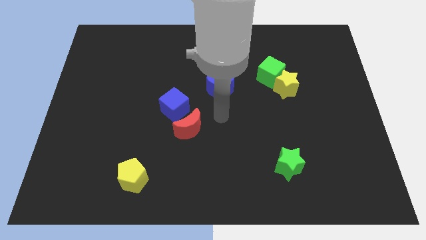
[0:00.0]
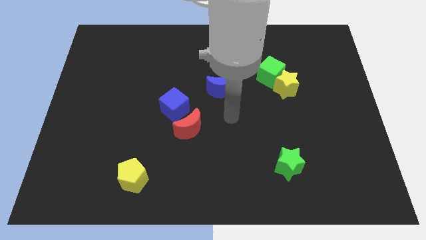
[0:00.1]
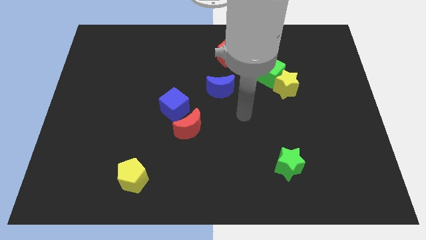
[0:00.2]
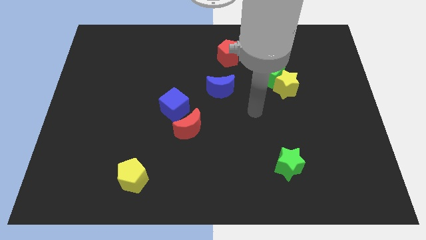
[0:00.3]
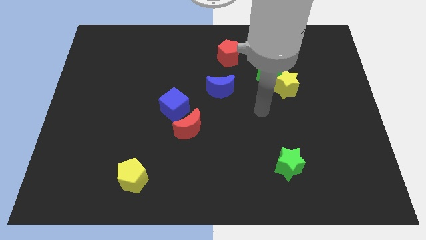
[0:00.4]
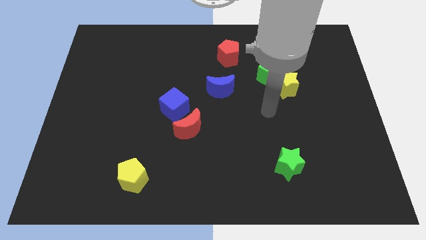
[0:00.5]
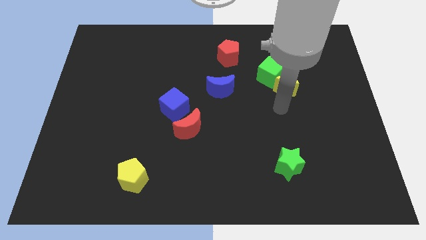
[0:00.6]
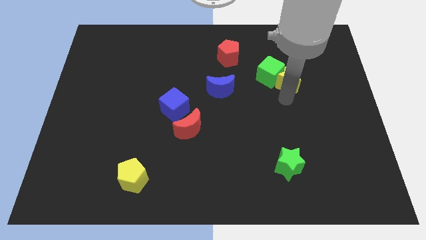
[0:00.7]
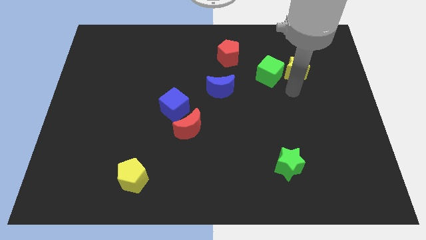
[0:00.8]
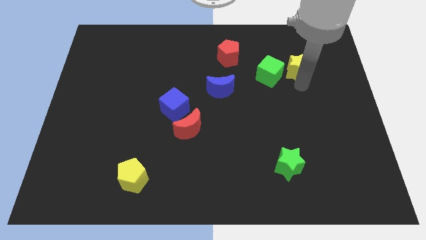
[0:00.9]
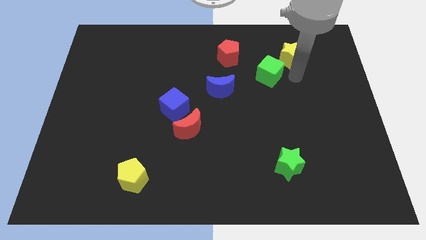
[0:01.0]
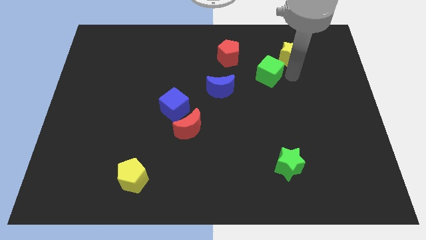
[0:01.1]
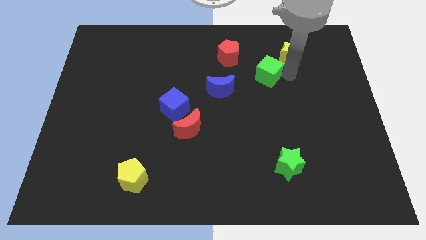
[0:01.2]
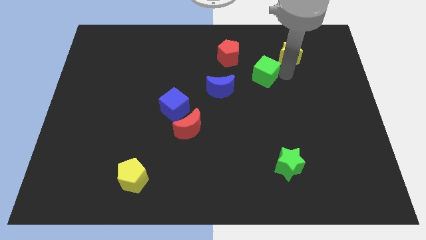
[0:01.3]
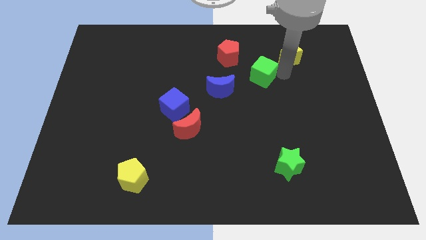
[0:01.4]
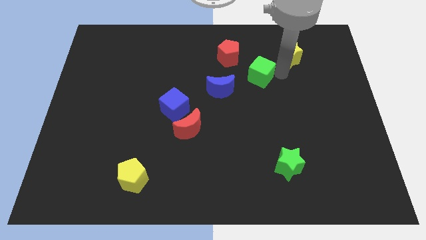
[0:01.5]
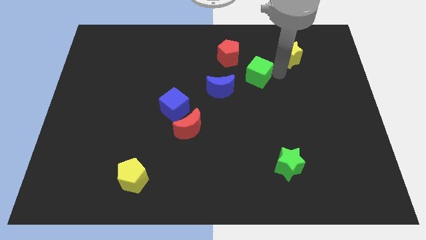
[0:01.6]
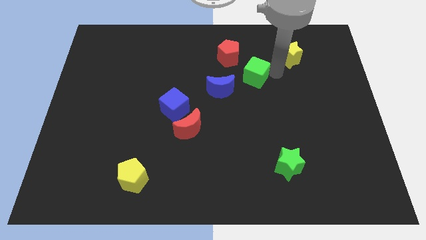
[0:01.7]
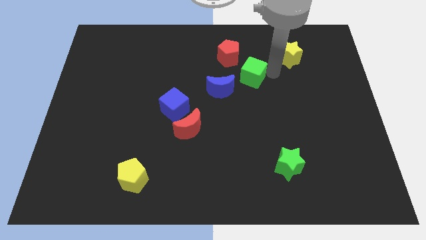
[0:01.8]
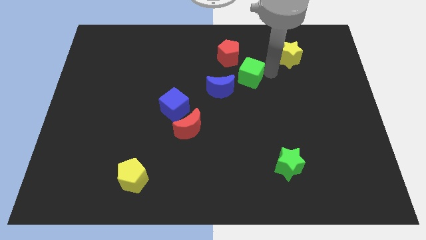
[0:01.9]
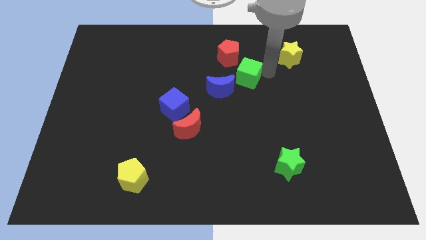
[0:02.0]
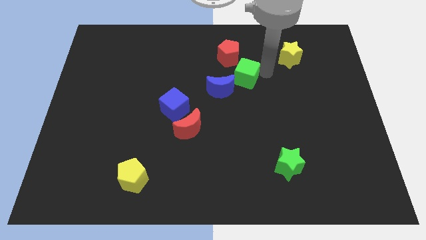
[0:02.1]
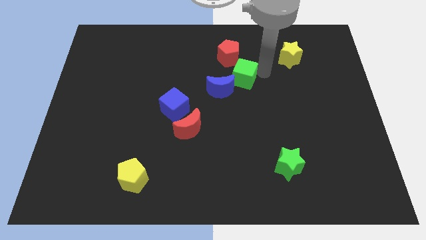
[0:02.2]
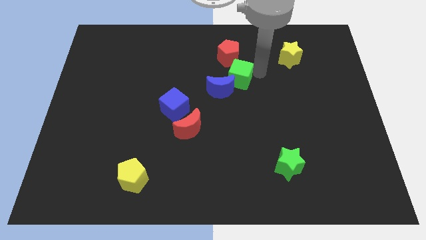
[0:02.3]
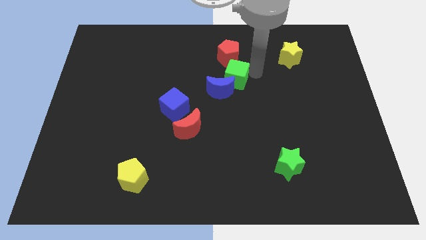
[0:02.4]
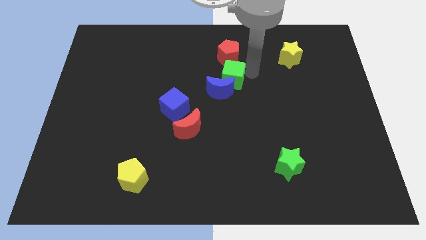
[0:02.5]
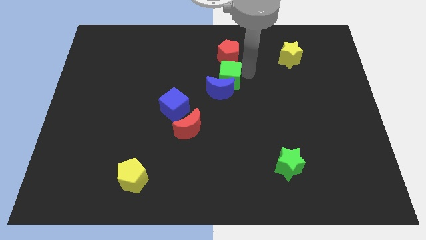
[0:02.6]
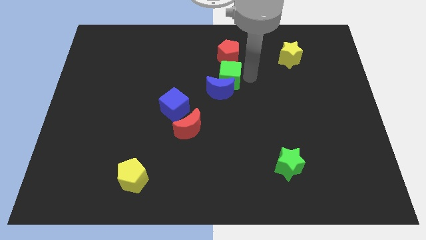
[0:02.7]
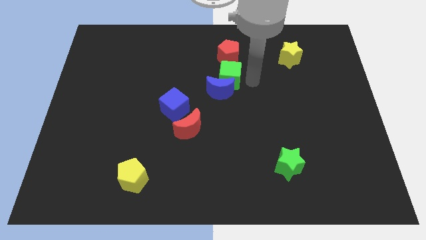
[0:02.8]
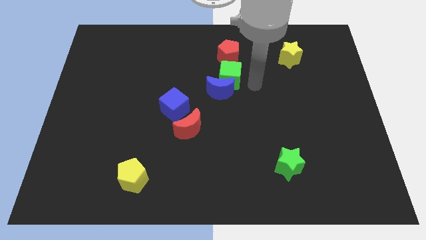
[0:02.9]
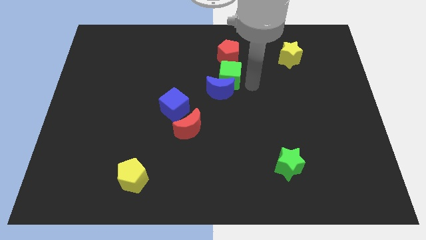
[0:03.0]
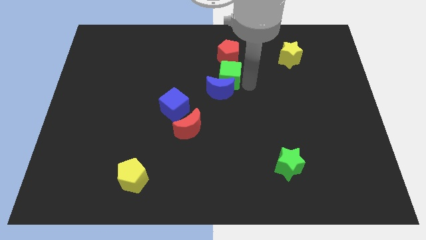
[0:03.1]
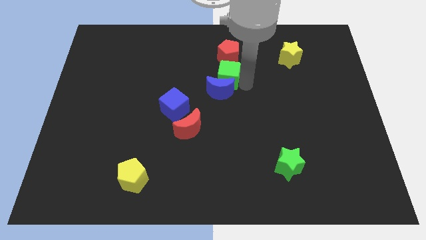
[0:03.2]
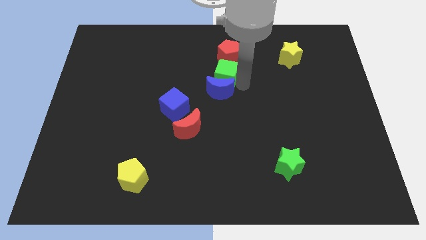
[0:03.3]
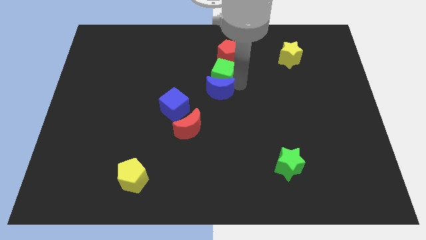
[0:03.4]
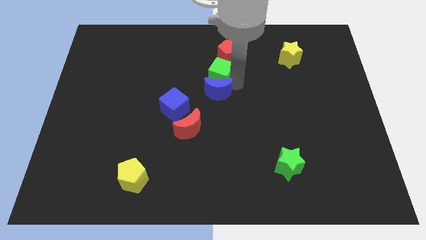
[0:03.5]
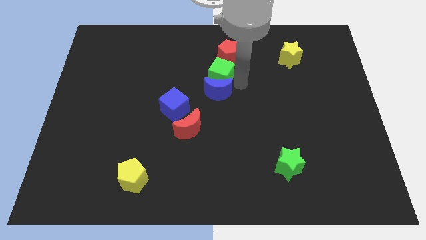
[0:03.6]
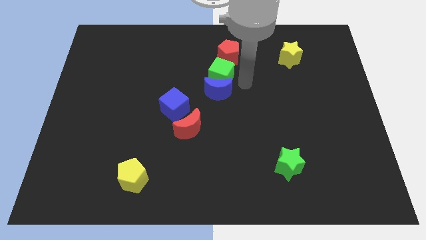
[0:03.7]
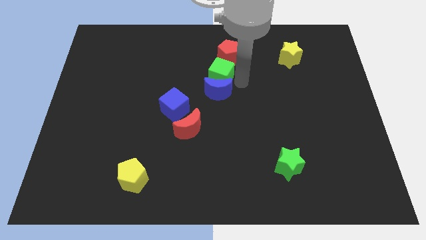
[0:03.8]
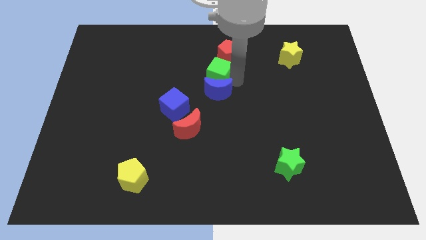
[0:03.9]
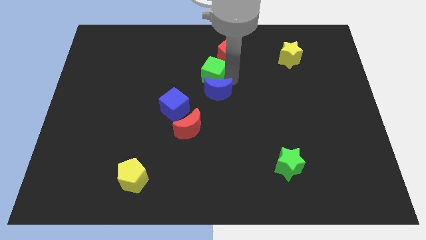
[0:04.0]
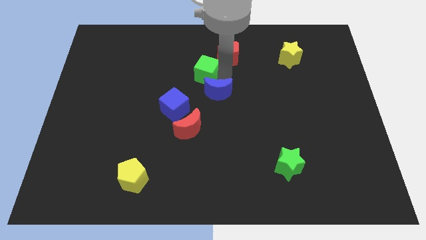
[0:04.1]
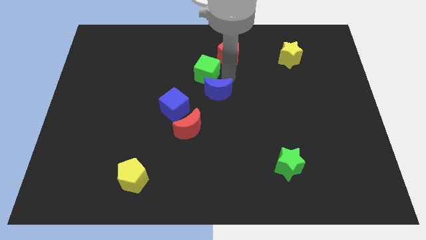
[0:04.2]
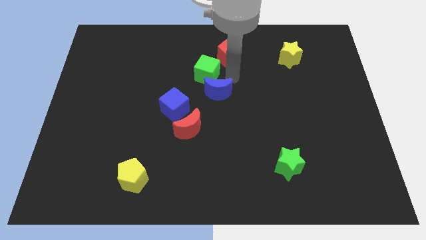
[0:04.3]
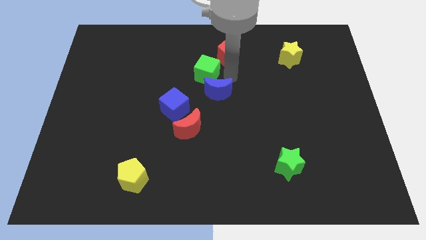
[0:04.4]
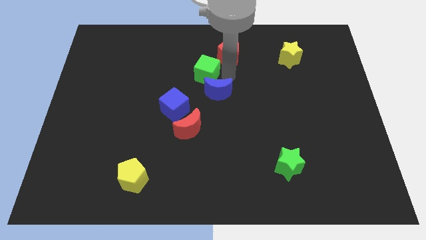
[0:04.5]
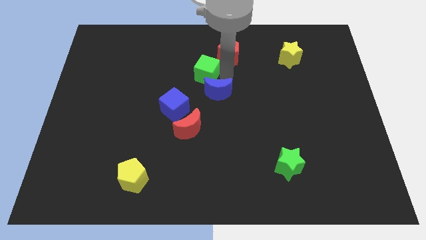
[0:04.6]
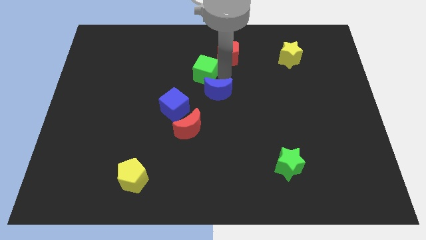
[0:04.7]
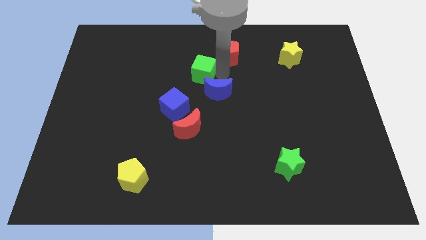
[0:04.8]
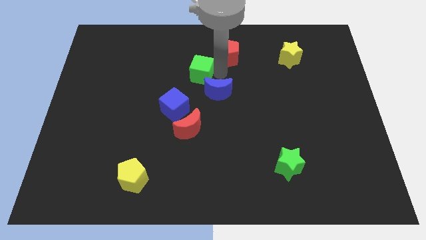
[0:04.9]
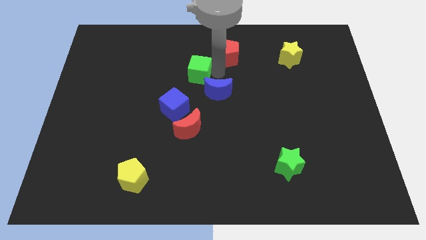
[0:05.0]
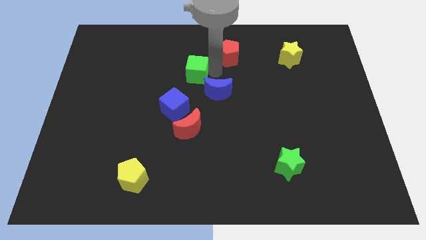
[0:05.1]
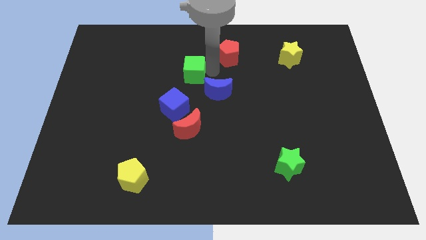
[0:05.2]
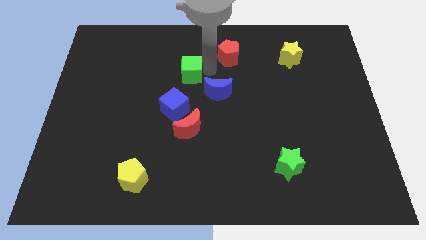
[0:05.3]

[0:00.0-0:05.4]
push the green cube left

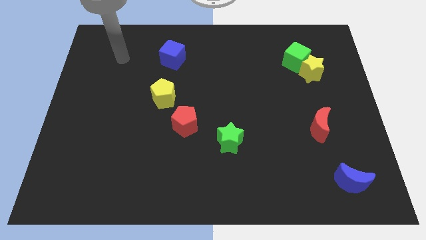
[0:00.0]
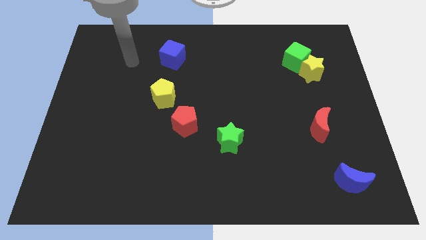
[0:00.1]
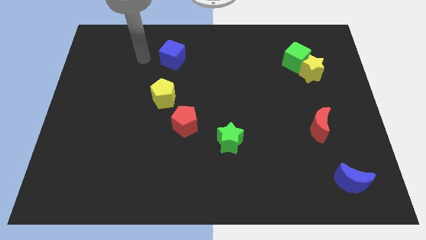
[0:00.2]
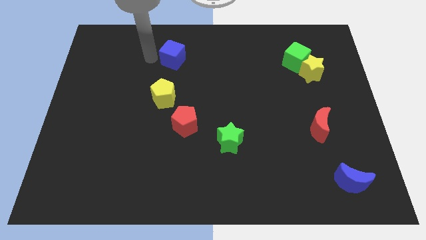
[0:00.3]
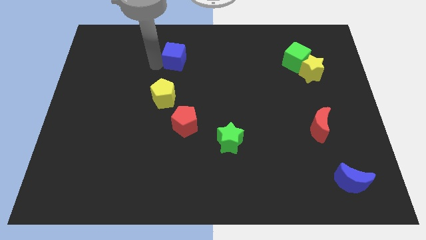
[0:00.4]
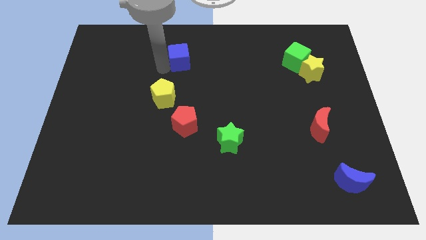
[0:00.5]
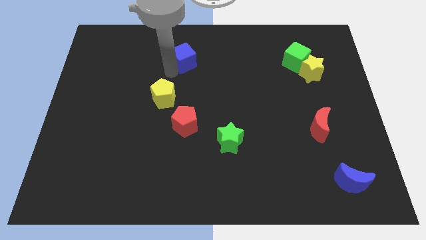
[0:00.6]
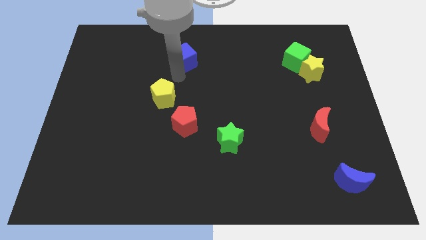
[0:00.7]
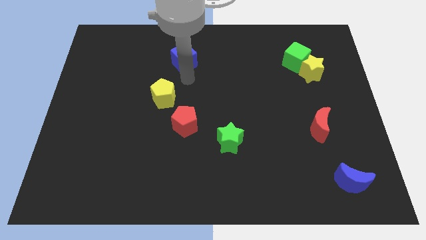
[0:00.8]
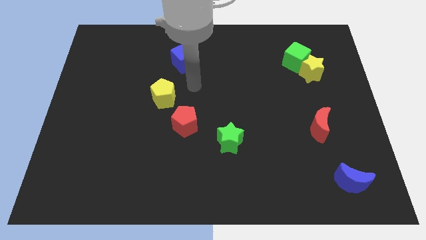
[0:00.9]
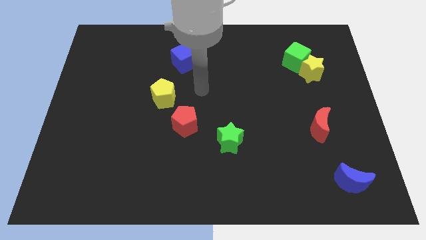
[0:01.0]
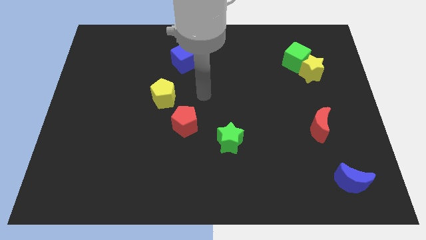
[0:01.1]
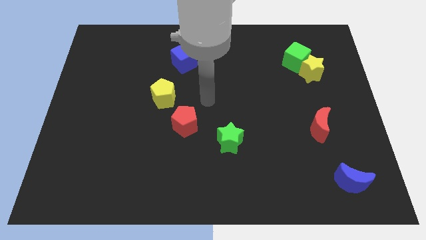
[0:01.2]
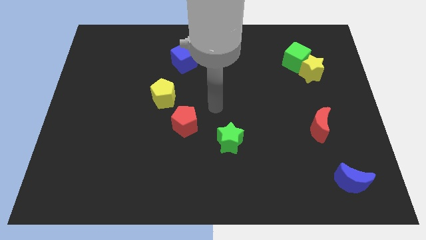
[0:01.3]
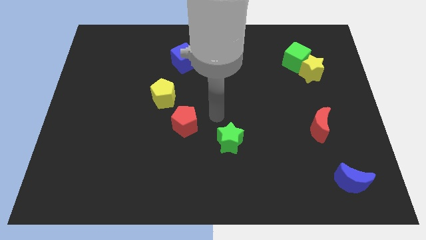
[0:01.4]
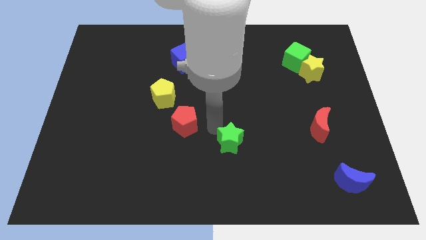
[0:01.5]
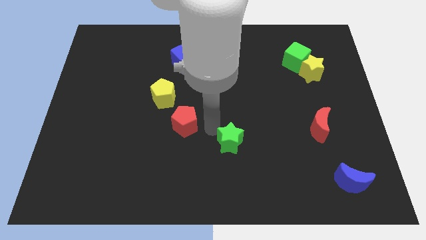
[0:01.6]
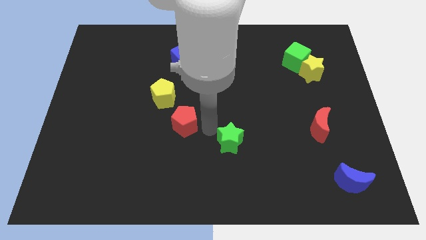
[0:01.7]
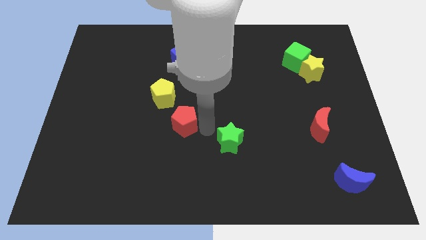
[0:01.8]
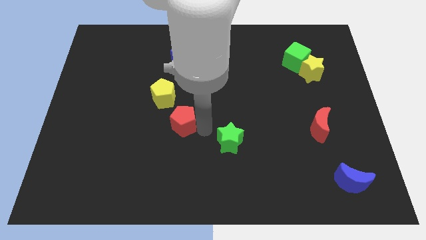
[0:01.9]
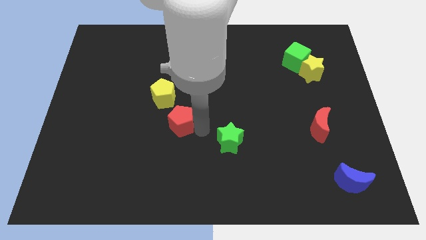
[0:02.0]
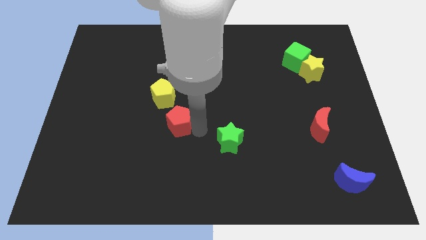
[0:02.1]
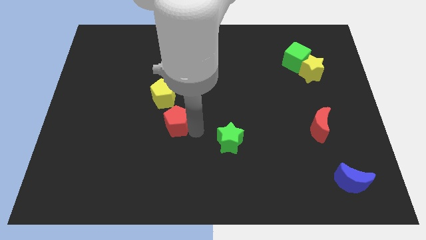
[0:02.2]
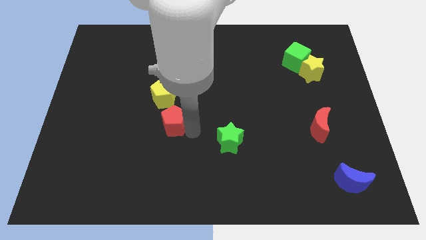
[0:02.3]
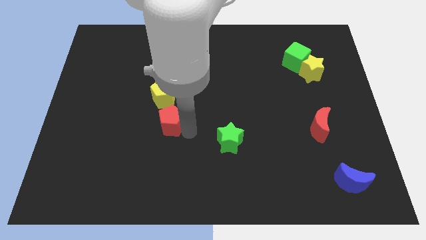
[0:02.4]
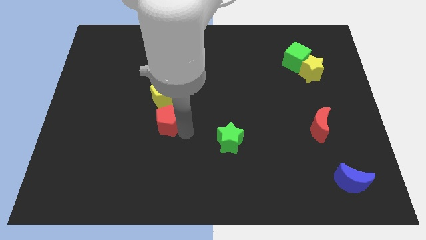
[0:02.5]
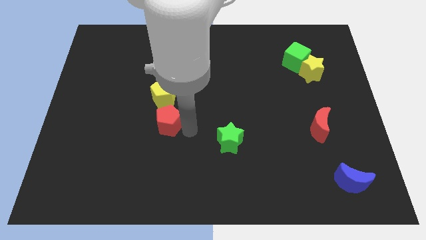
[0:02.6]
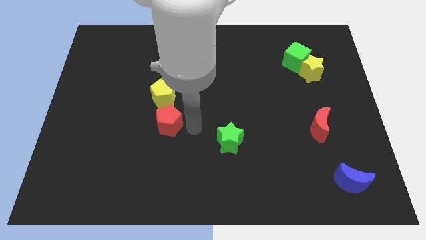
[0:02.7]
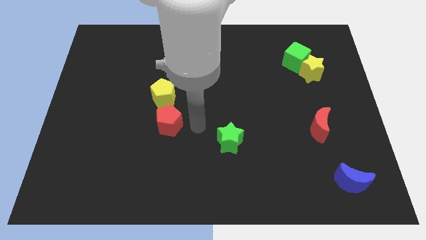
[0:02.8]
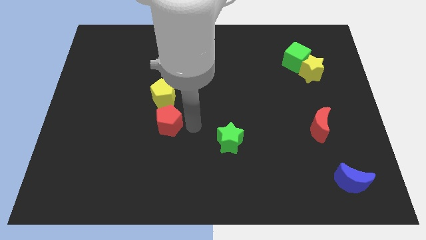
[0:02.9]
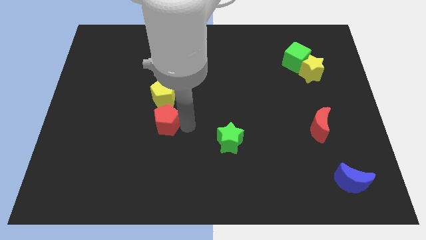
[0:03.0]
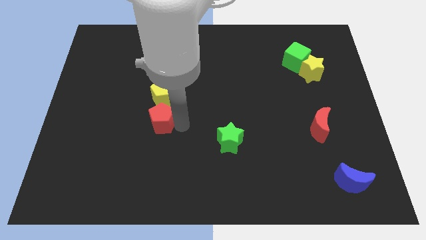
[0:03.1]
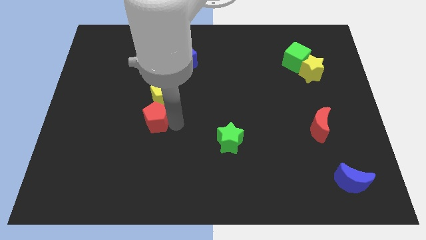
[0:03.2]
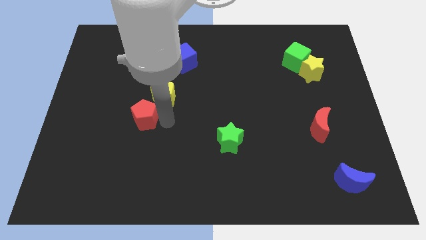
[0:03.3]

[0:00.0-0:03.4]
push the red pentagon slightly left
